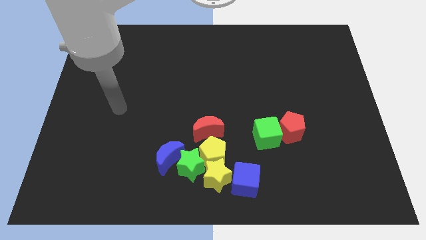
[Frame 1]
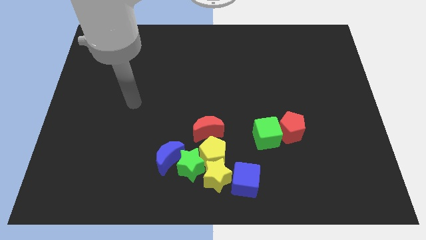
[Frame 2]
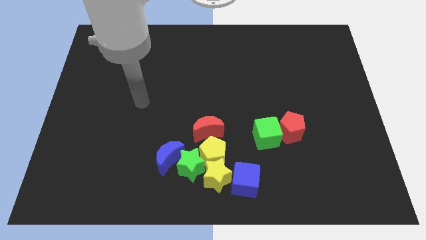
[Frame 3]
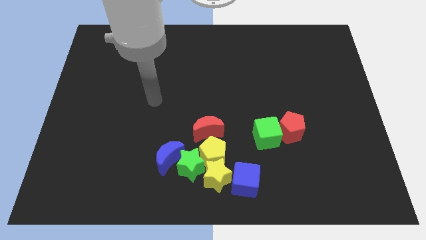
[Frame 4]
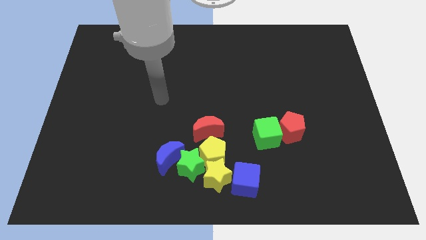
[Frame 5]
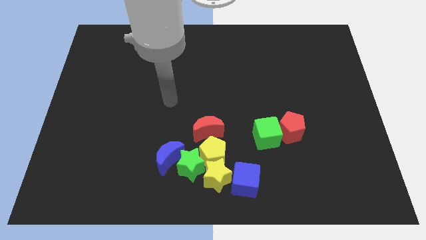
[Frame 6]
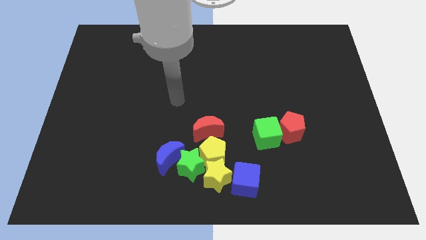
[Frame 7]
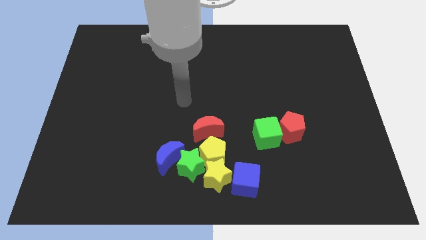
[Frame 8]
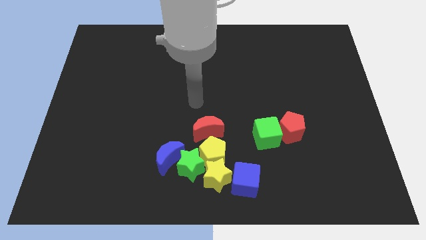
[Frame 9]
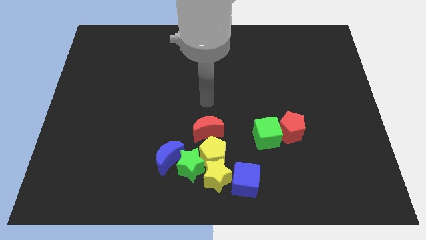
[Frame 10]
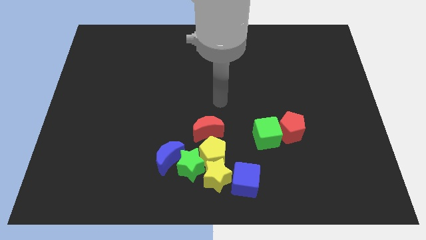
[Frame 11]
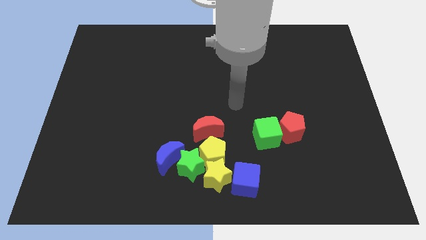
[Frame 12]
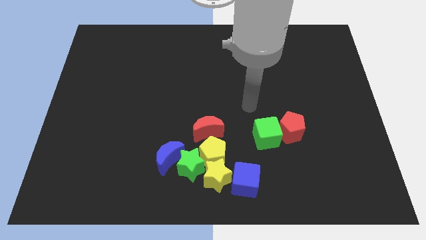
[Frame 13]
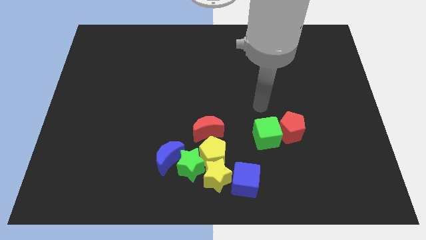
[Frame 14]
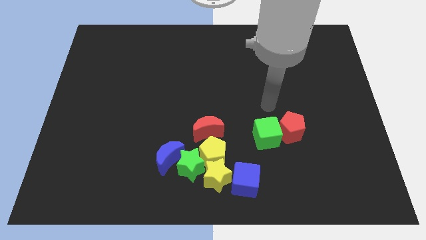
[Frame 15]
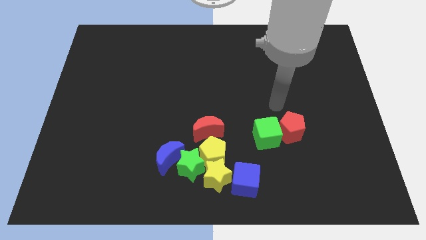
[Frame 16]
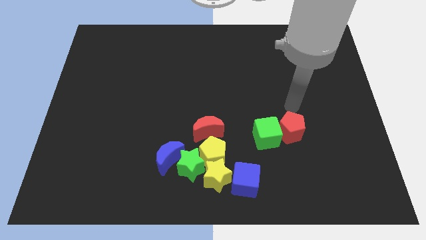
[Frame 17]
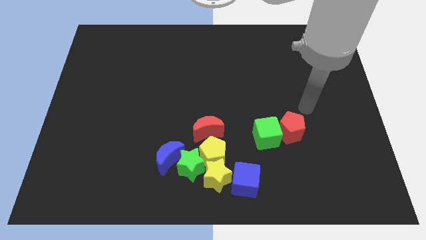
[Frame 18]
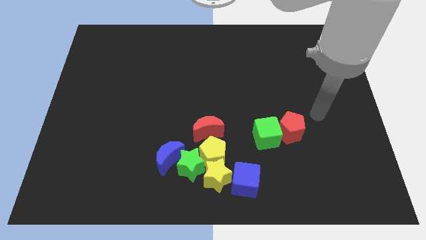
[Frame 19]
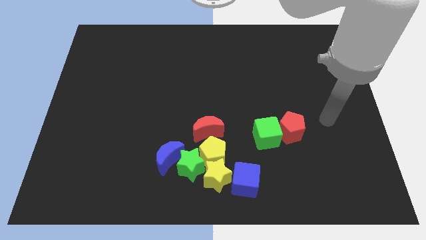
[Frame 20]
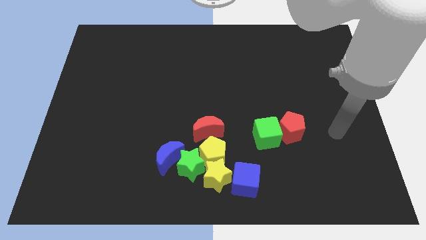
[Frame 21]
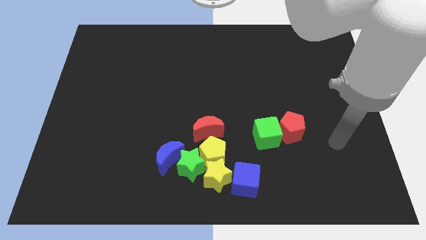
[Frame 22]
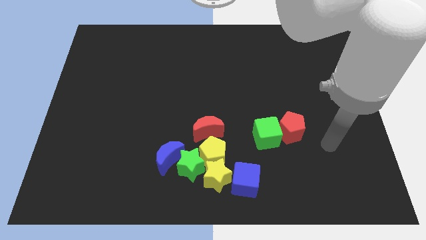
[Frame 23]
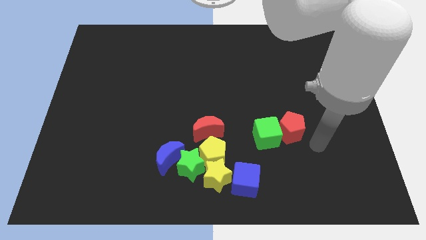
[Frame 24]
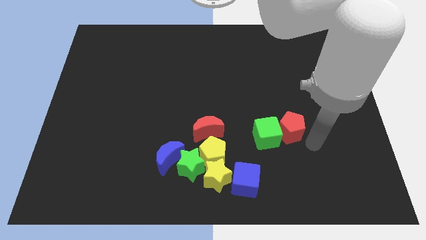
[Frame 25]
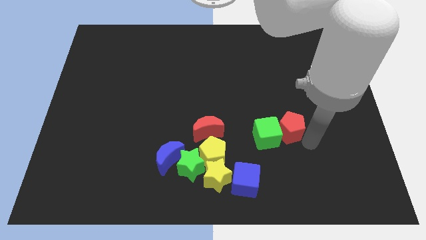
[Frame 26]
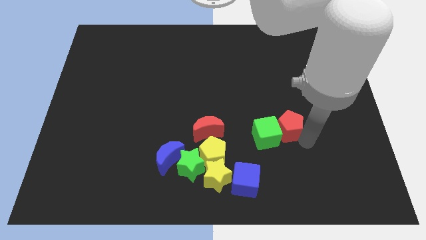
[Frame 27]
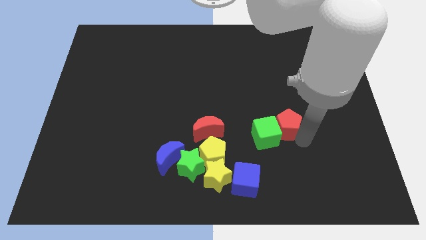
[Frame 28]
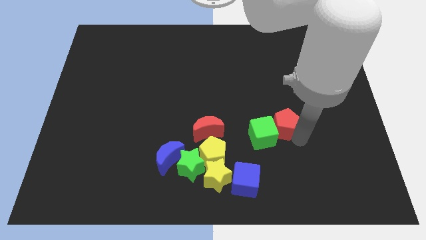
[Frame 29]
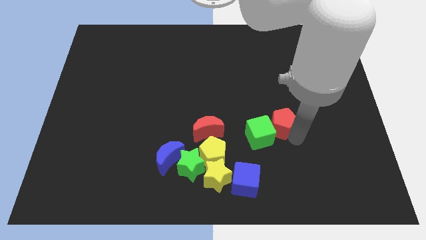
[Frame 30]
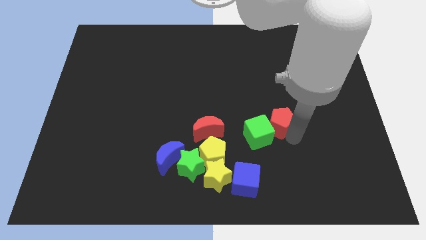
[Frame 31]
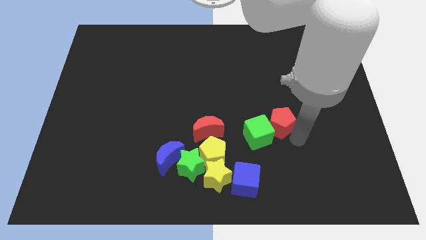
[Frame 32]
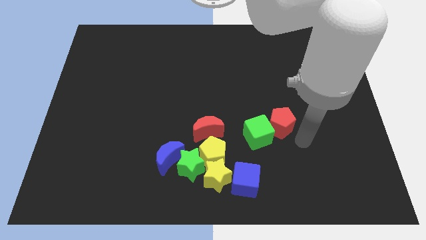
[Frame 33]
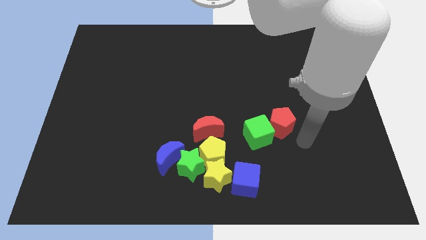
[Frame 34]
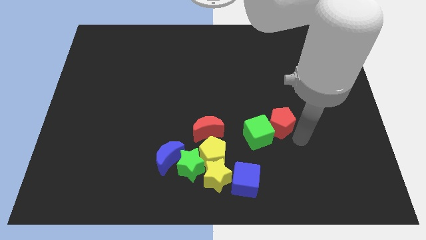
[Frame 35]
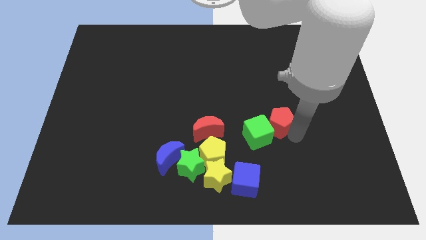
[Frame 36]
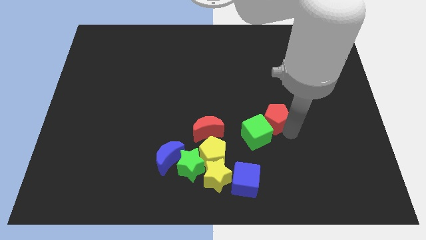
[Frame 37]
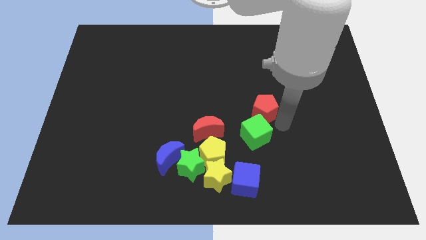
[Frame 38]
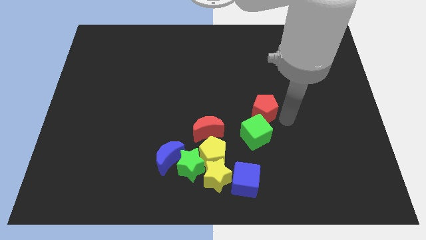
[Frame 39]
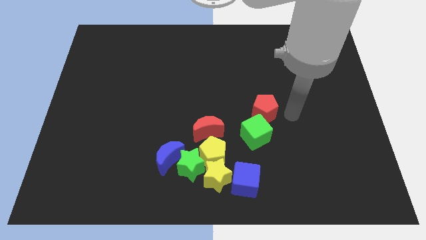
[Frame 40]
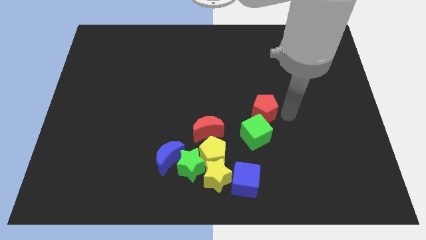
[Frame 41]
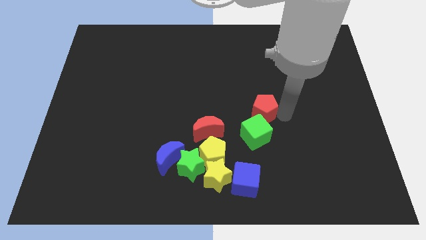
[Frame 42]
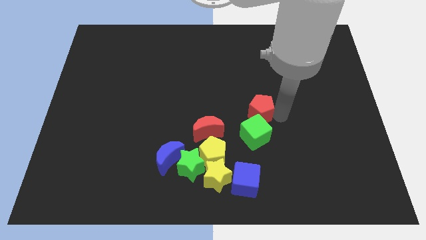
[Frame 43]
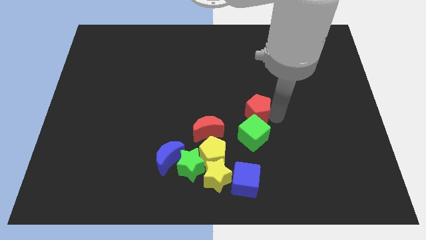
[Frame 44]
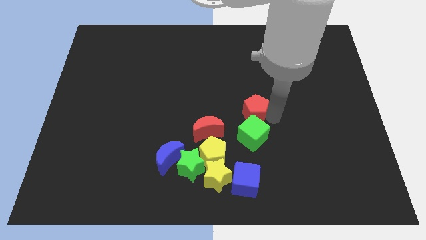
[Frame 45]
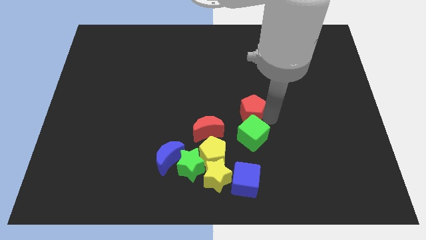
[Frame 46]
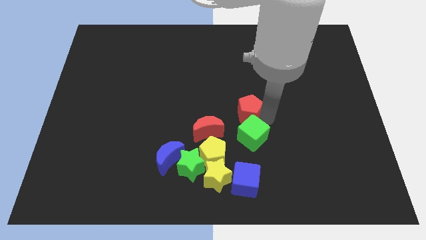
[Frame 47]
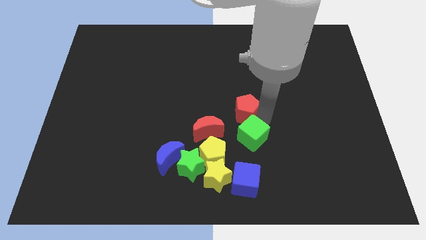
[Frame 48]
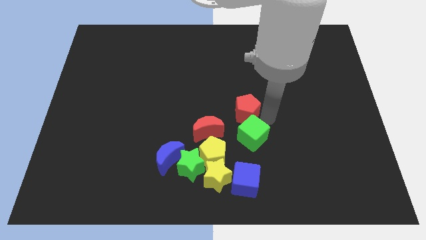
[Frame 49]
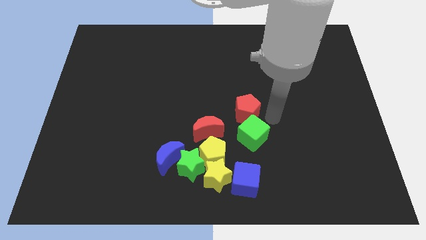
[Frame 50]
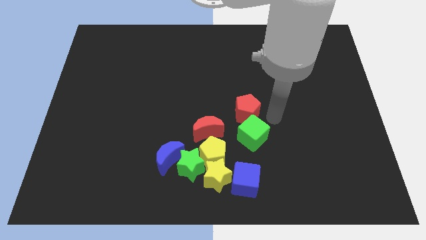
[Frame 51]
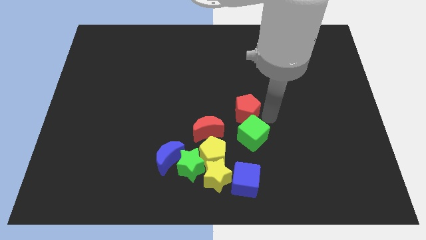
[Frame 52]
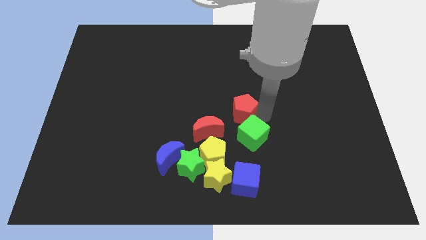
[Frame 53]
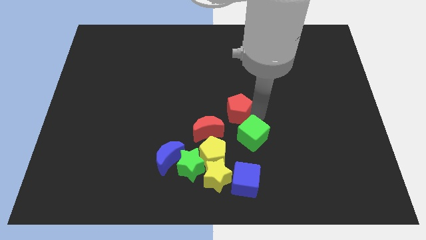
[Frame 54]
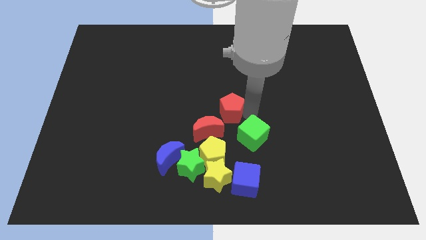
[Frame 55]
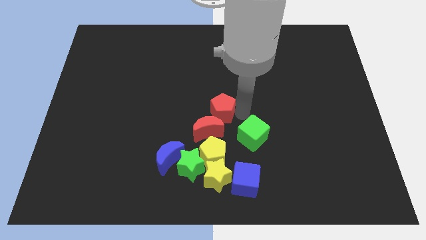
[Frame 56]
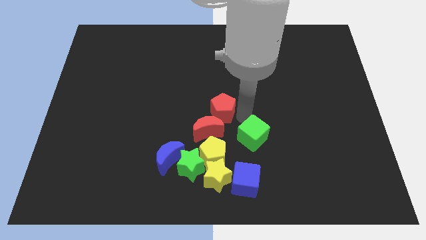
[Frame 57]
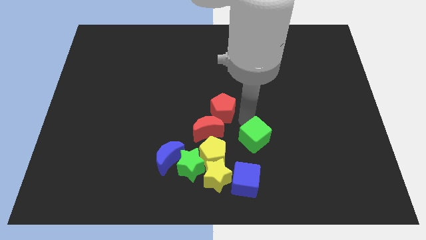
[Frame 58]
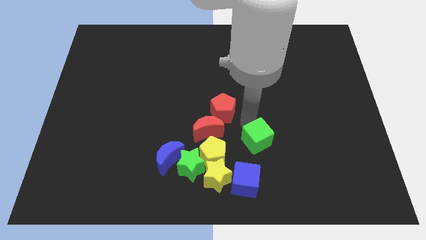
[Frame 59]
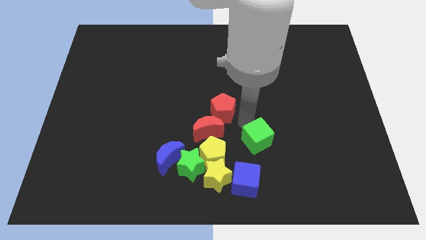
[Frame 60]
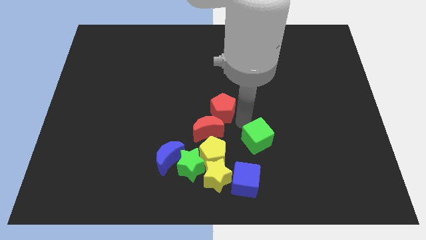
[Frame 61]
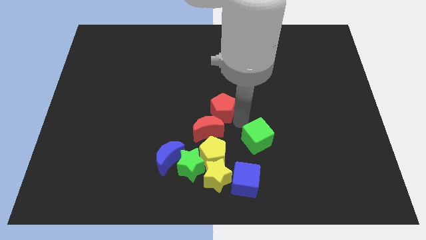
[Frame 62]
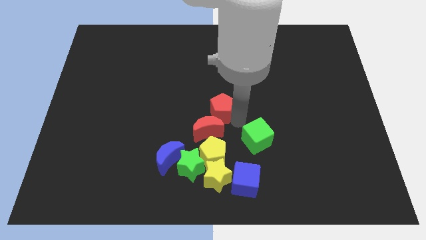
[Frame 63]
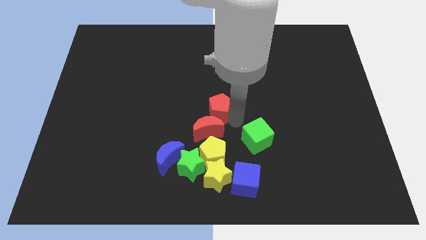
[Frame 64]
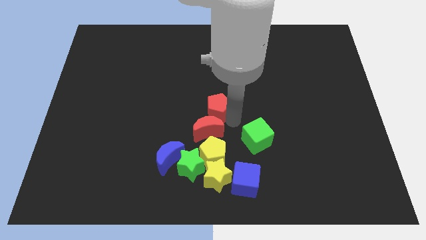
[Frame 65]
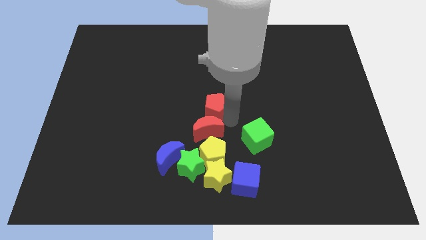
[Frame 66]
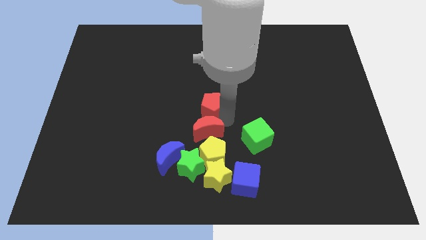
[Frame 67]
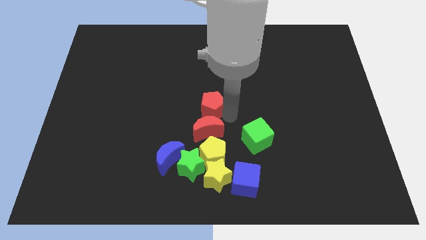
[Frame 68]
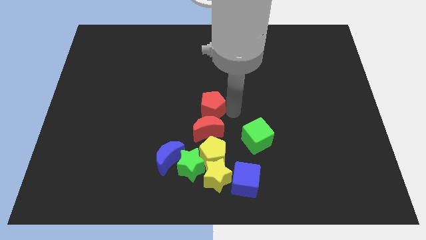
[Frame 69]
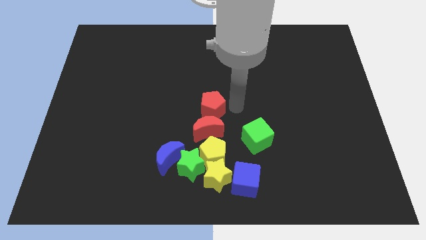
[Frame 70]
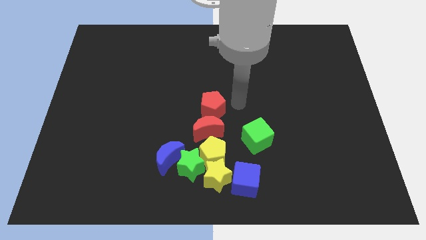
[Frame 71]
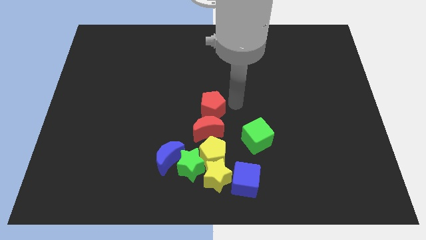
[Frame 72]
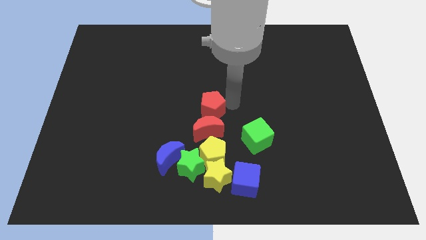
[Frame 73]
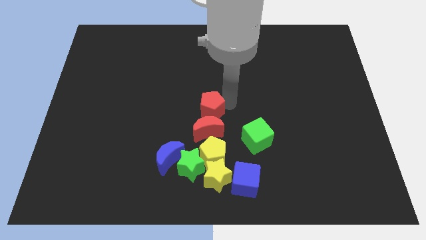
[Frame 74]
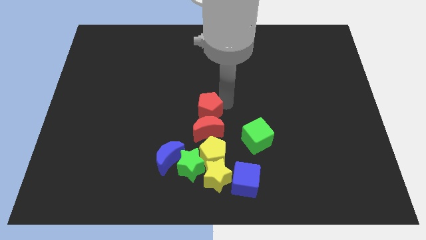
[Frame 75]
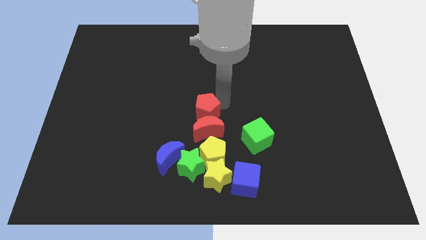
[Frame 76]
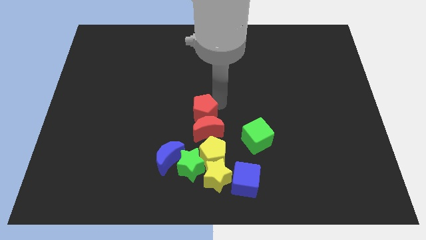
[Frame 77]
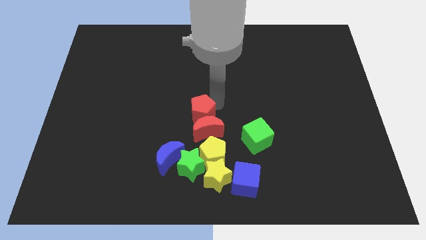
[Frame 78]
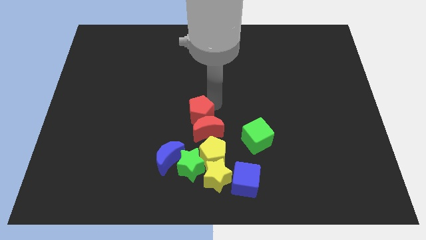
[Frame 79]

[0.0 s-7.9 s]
move the red pentagon to the left

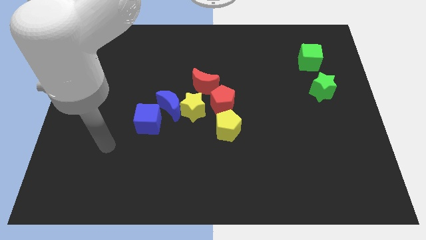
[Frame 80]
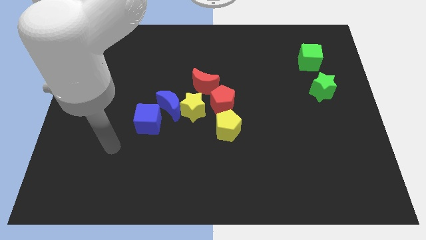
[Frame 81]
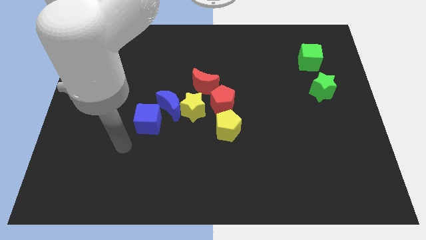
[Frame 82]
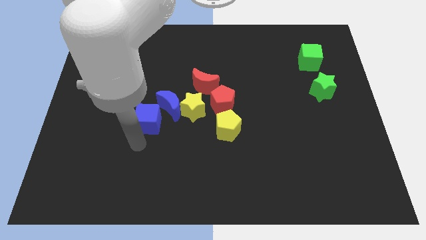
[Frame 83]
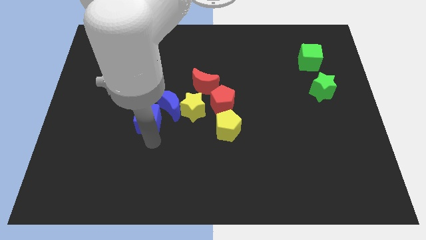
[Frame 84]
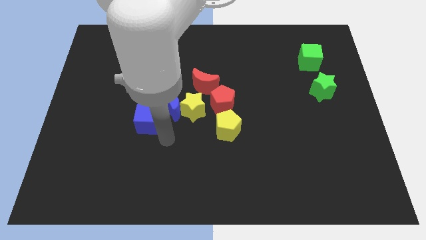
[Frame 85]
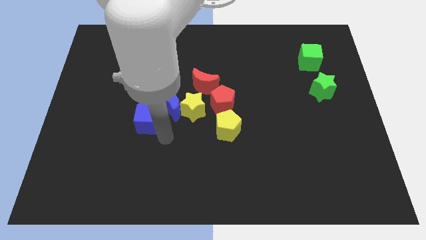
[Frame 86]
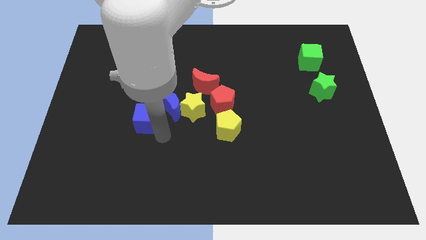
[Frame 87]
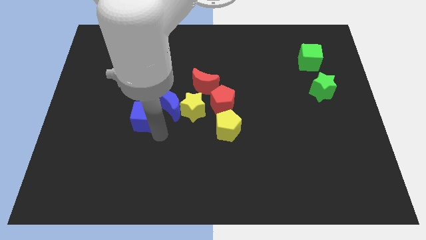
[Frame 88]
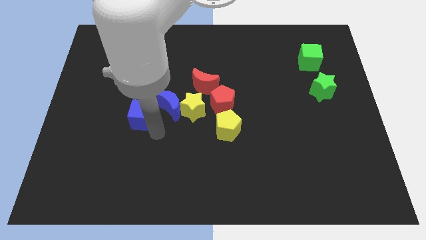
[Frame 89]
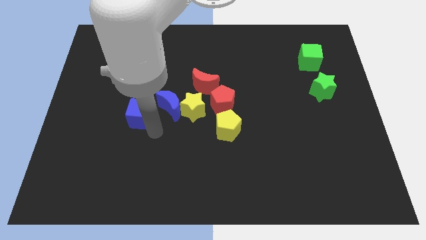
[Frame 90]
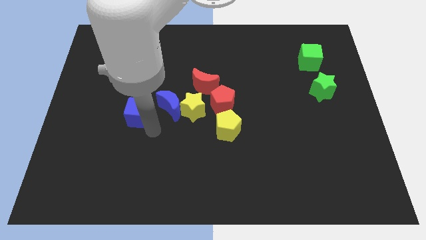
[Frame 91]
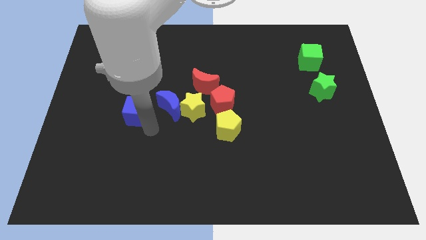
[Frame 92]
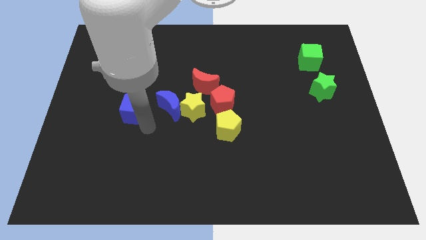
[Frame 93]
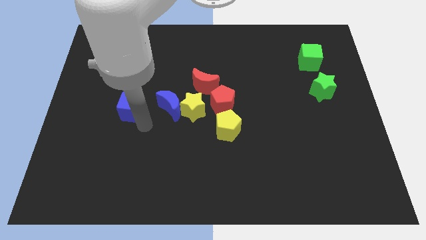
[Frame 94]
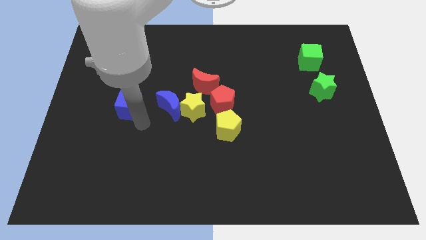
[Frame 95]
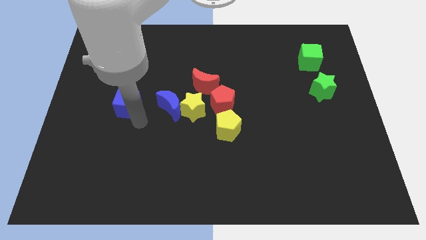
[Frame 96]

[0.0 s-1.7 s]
slightly push the blue cube diagonally upwards and left
